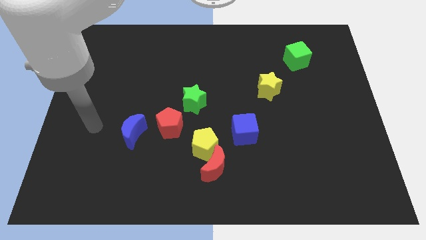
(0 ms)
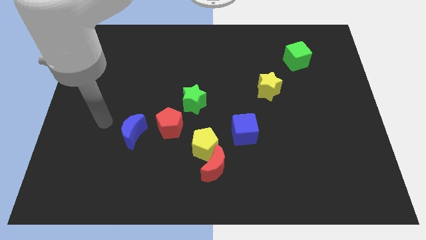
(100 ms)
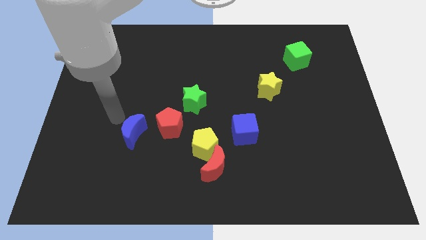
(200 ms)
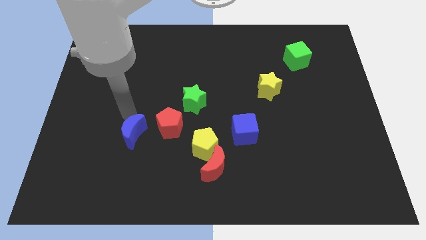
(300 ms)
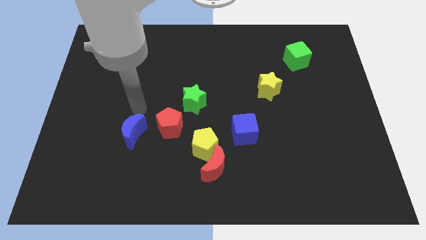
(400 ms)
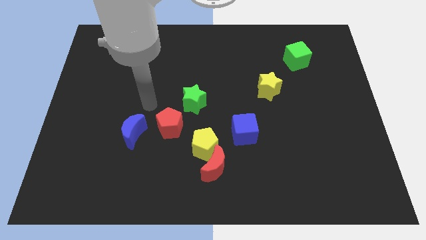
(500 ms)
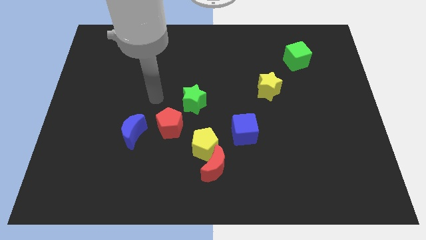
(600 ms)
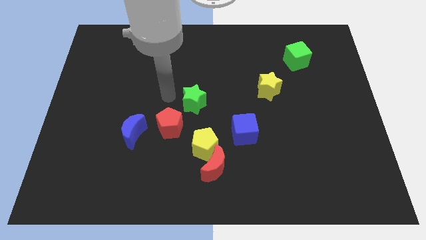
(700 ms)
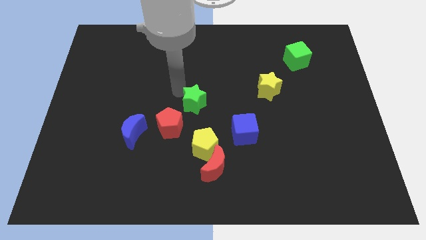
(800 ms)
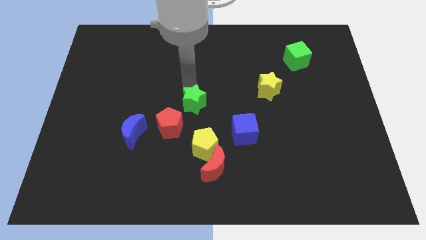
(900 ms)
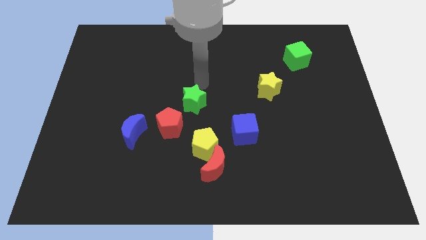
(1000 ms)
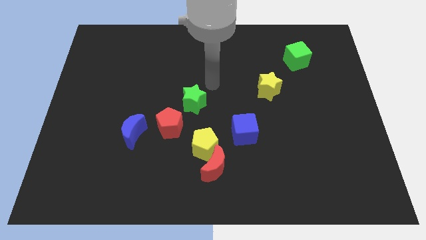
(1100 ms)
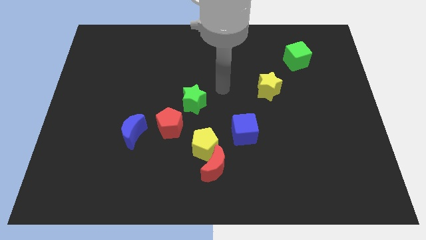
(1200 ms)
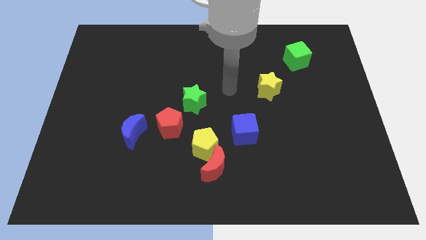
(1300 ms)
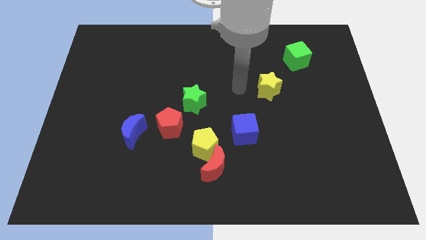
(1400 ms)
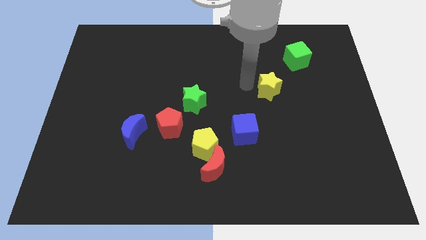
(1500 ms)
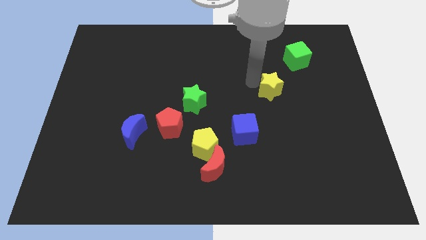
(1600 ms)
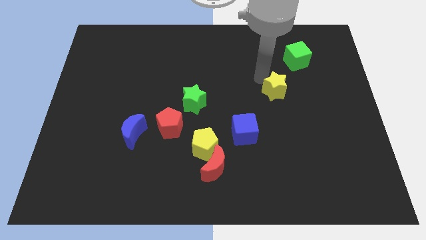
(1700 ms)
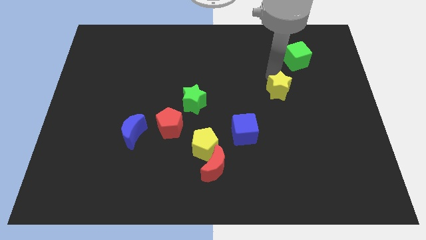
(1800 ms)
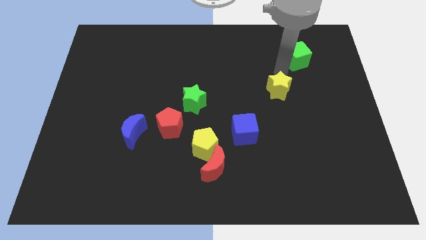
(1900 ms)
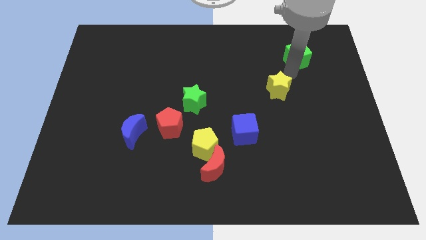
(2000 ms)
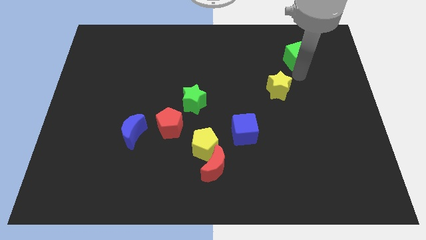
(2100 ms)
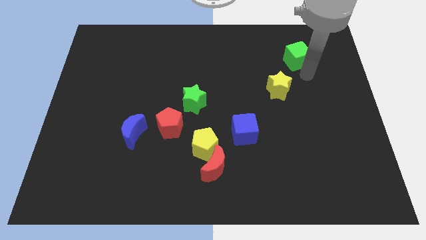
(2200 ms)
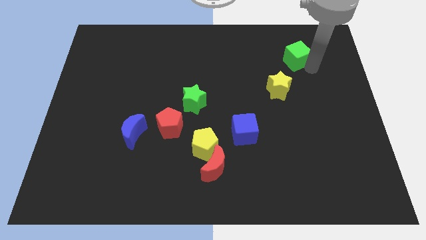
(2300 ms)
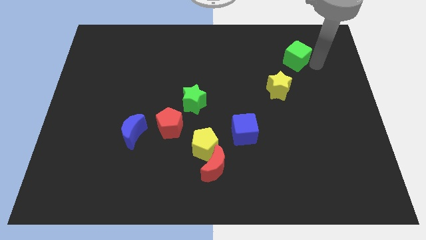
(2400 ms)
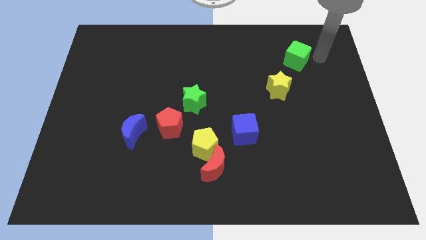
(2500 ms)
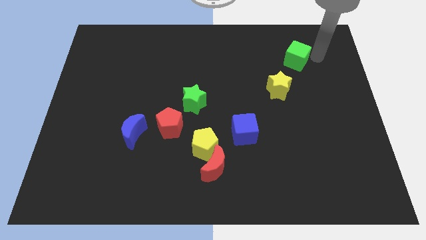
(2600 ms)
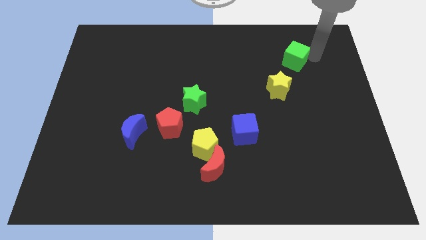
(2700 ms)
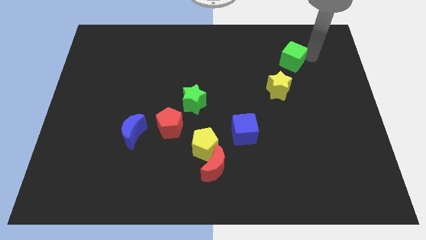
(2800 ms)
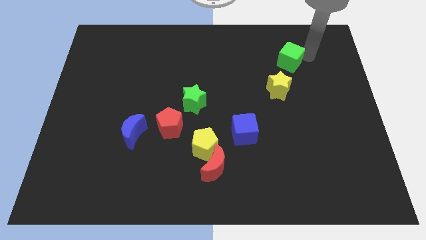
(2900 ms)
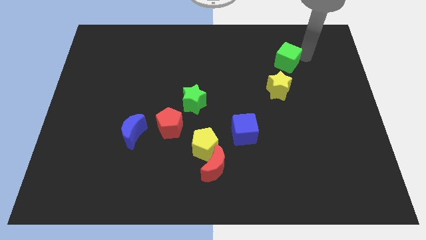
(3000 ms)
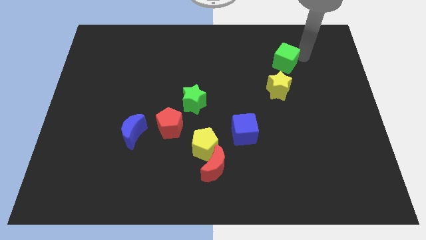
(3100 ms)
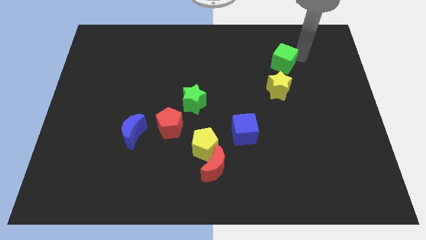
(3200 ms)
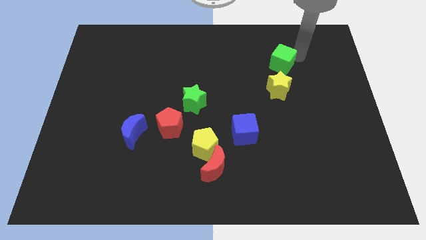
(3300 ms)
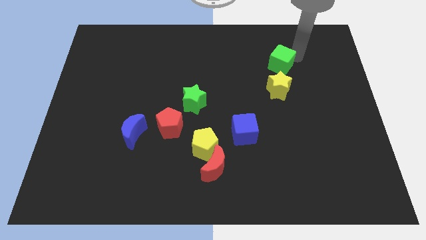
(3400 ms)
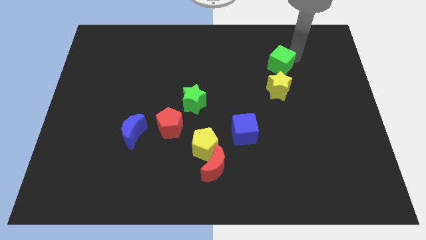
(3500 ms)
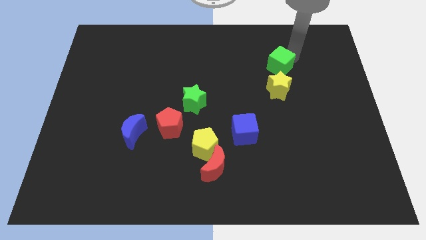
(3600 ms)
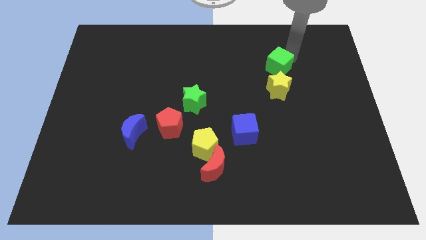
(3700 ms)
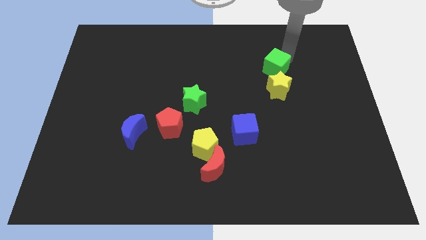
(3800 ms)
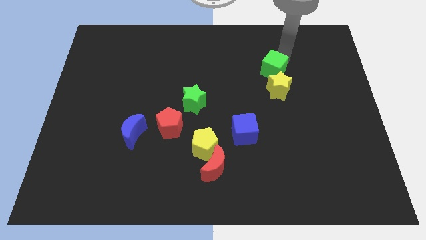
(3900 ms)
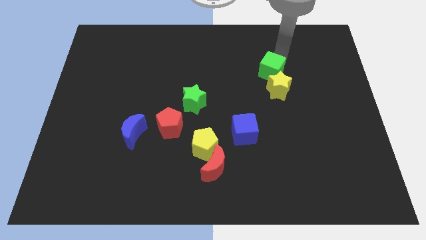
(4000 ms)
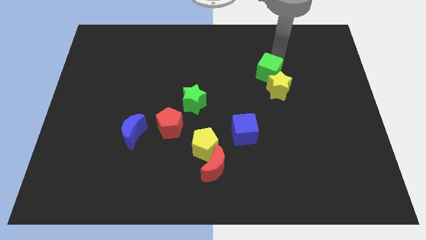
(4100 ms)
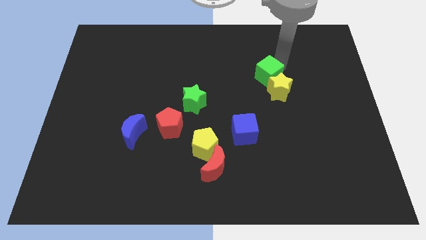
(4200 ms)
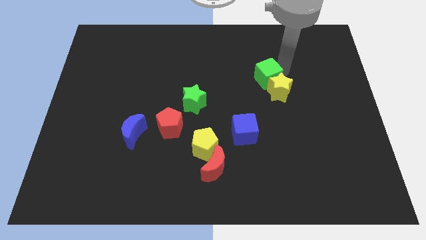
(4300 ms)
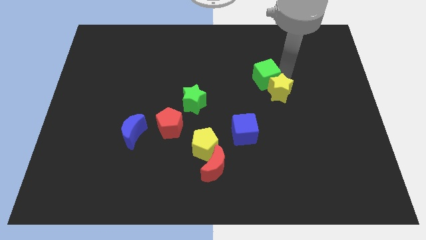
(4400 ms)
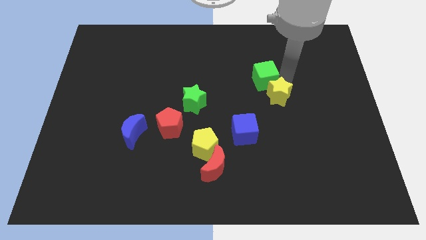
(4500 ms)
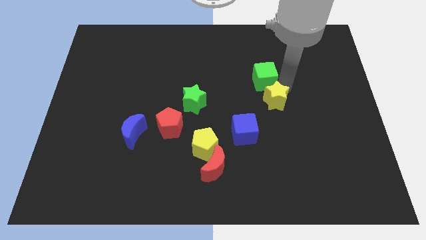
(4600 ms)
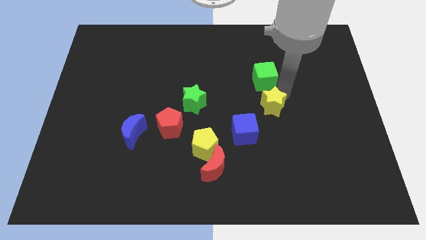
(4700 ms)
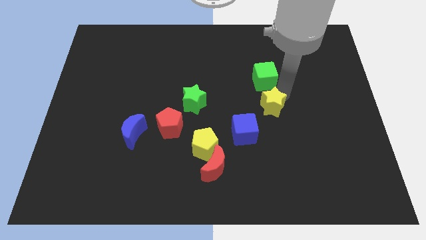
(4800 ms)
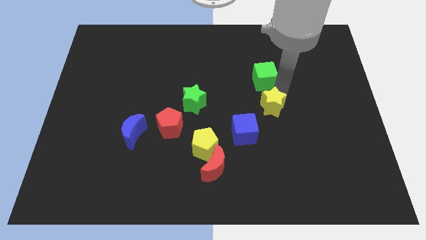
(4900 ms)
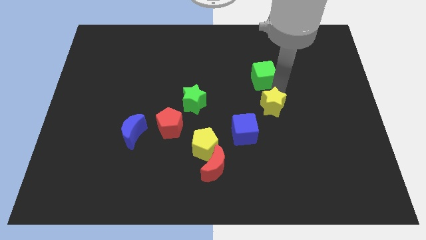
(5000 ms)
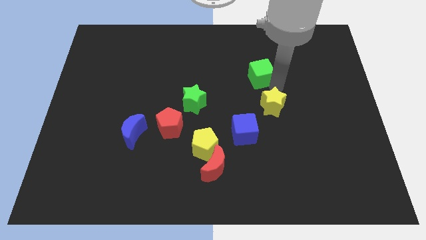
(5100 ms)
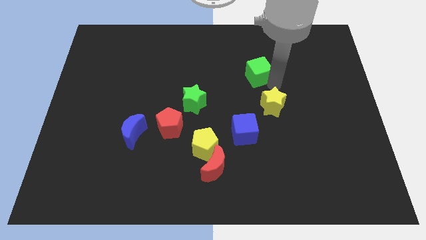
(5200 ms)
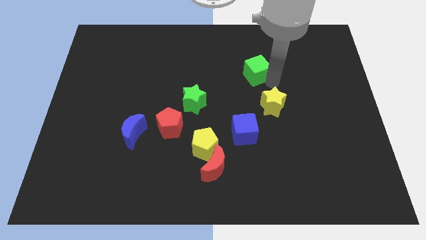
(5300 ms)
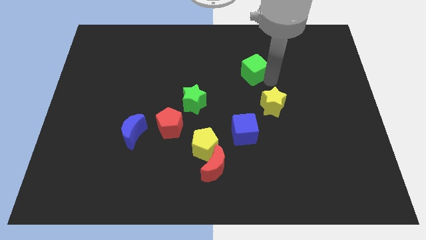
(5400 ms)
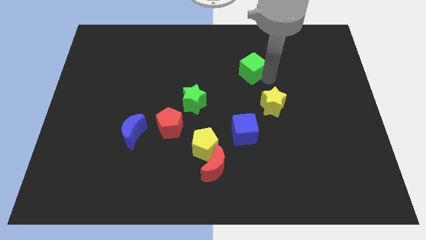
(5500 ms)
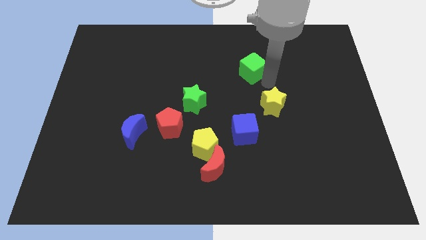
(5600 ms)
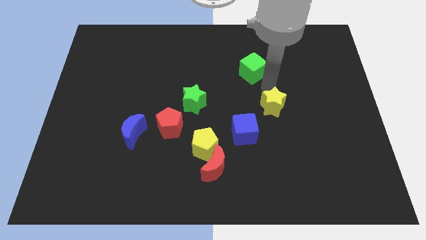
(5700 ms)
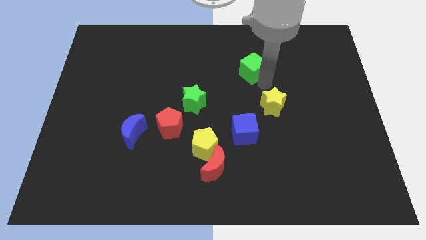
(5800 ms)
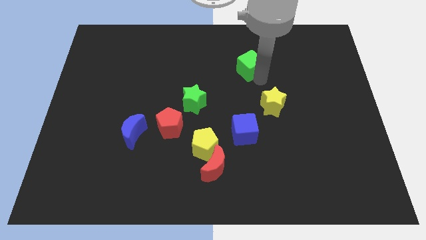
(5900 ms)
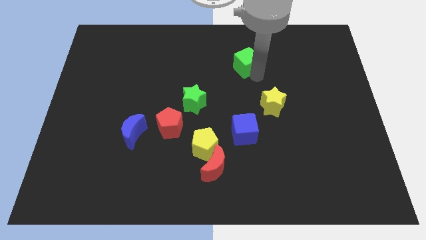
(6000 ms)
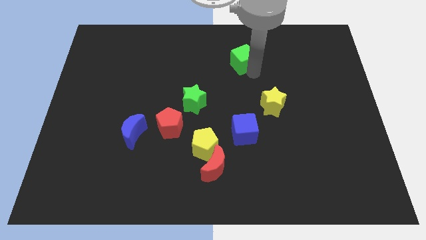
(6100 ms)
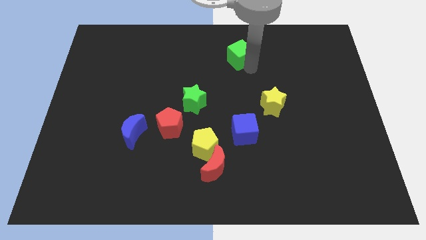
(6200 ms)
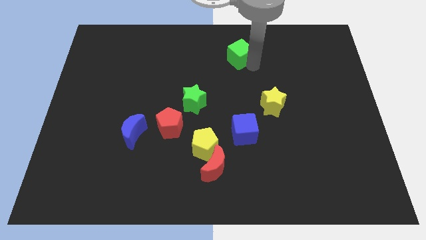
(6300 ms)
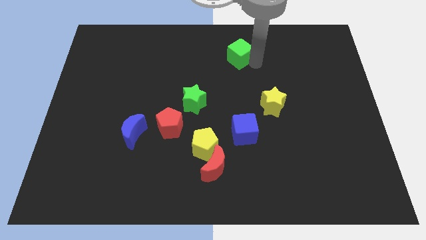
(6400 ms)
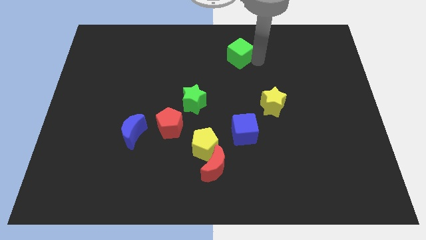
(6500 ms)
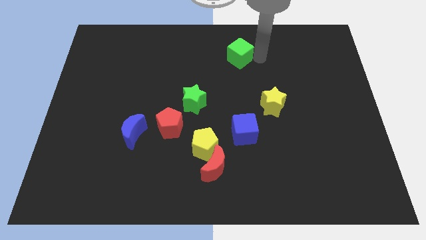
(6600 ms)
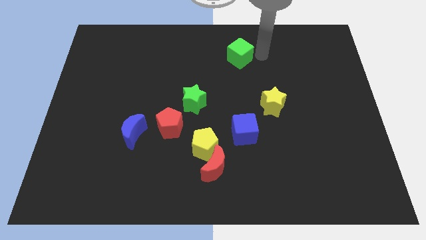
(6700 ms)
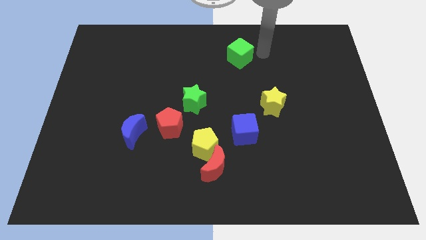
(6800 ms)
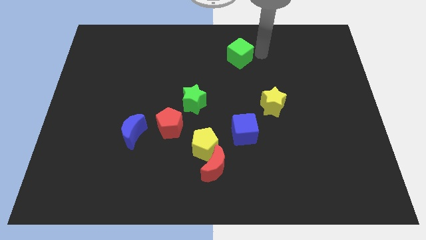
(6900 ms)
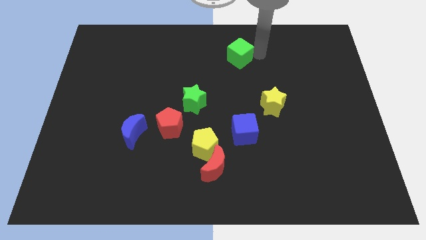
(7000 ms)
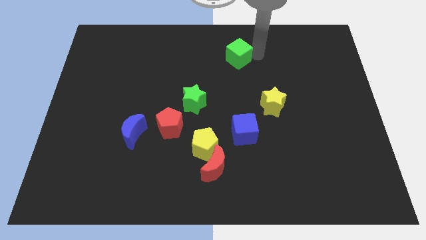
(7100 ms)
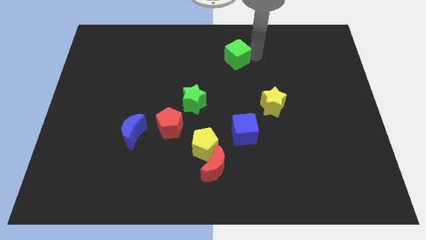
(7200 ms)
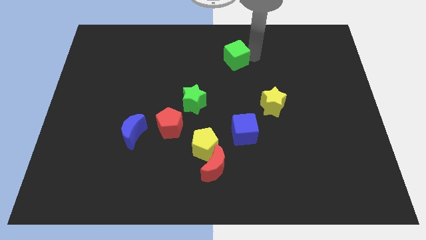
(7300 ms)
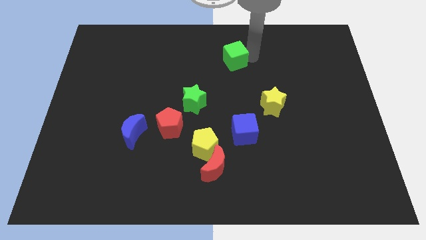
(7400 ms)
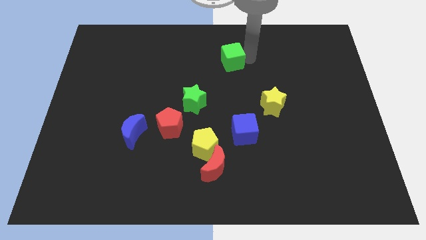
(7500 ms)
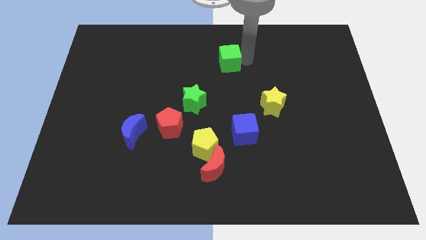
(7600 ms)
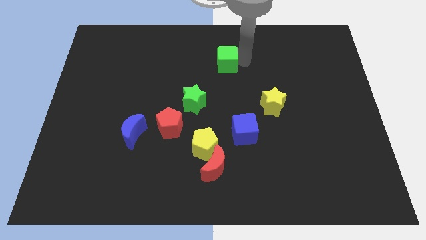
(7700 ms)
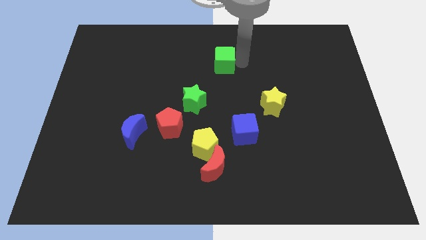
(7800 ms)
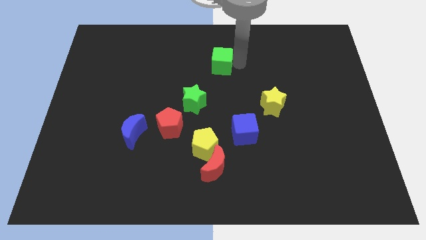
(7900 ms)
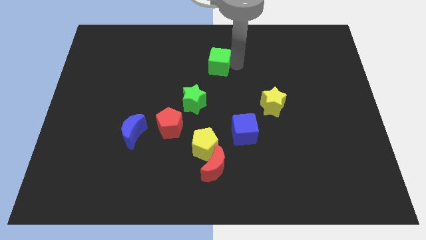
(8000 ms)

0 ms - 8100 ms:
move the green cube to the left

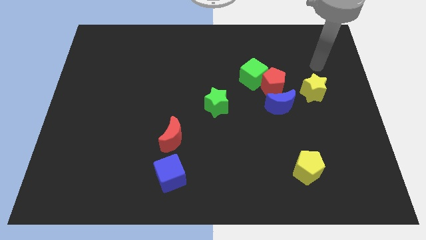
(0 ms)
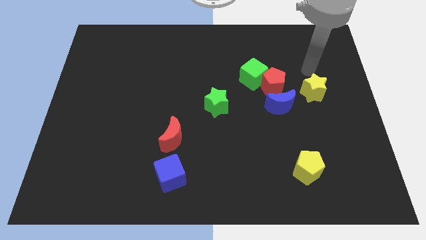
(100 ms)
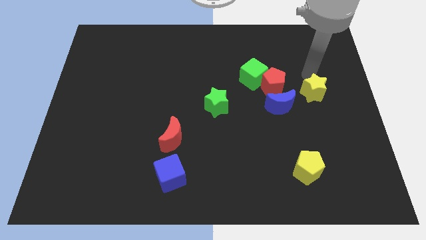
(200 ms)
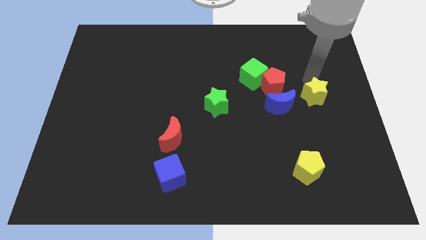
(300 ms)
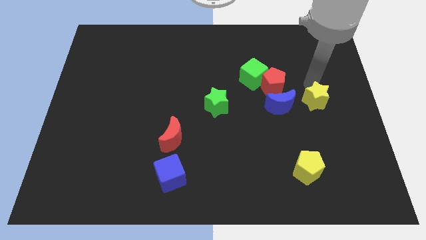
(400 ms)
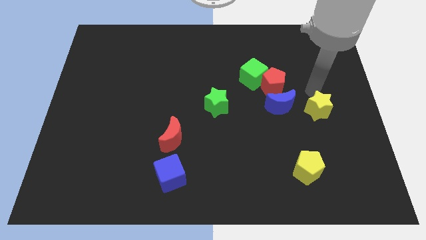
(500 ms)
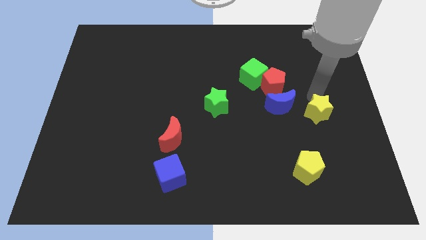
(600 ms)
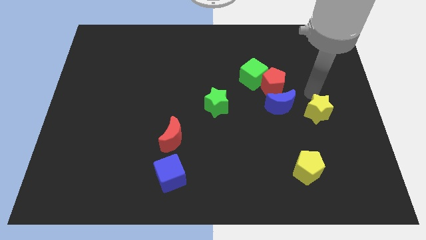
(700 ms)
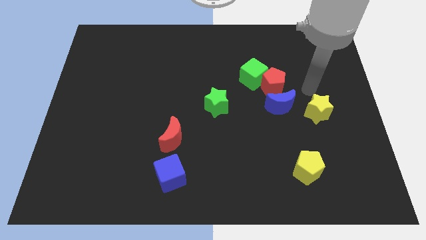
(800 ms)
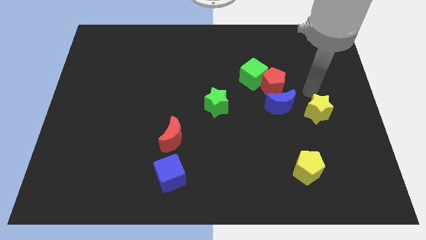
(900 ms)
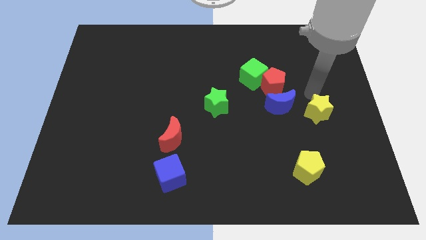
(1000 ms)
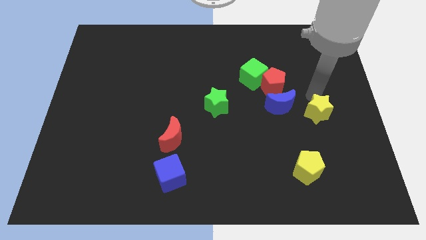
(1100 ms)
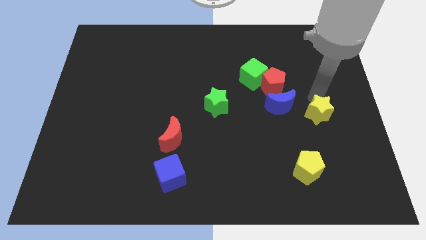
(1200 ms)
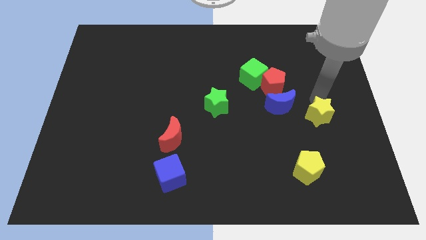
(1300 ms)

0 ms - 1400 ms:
slide the yellow star down somewhat
